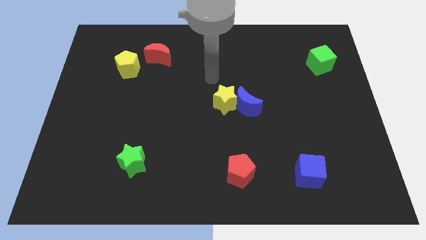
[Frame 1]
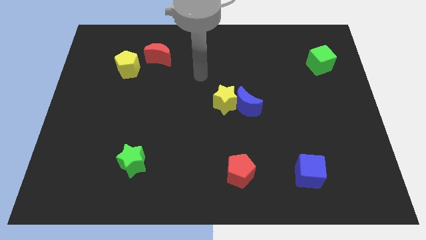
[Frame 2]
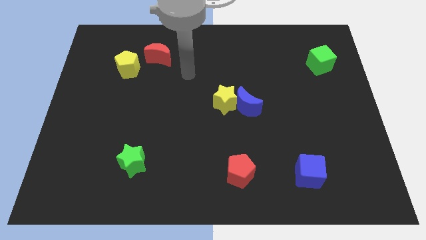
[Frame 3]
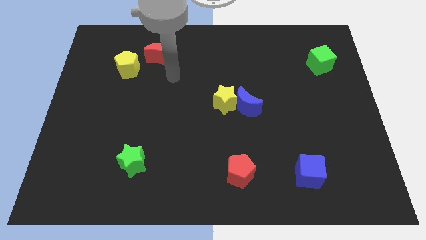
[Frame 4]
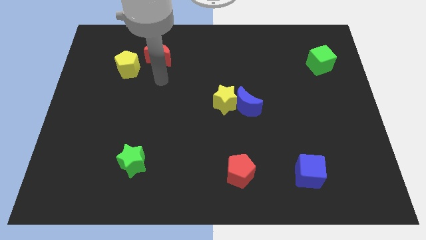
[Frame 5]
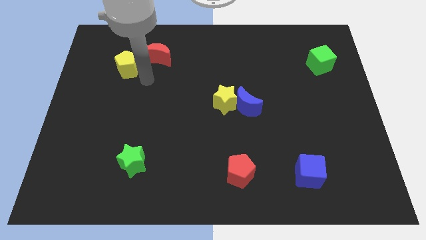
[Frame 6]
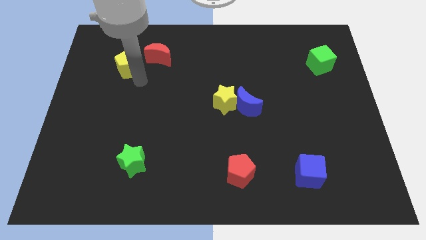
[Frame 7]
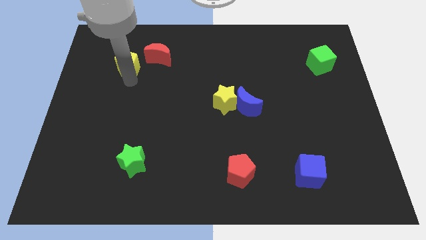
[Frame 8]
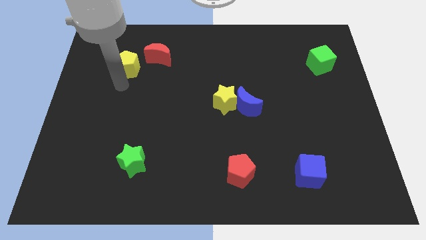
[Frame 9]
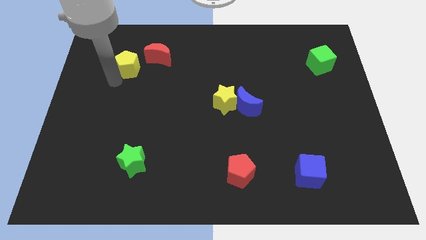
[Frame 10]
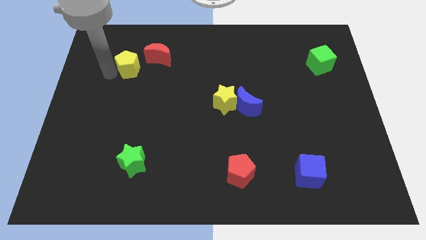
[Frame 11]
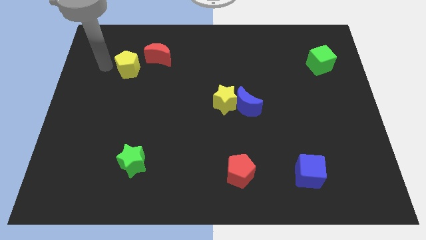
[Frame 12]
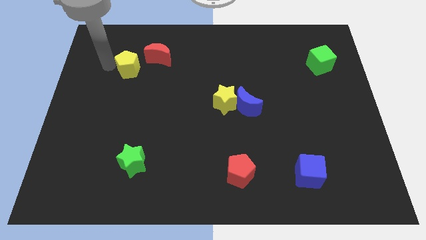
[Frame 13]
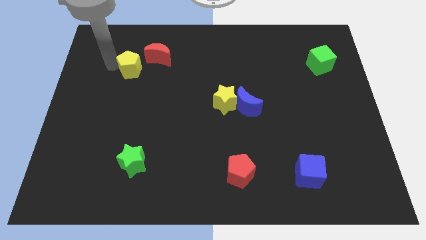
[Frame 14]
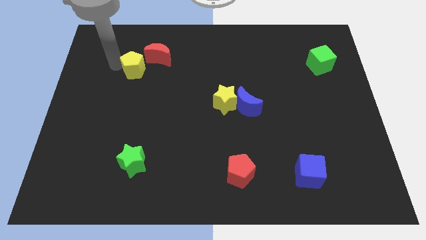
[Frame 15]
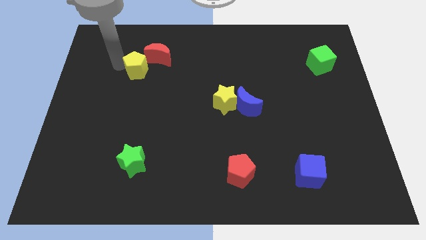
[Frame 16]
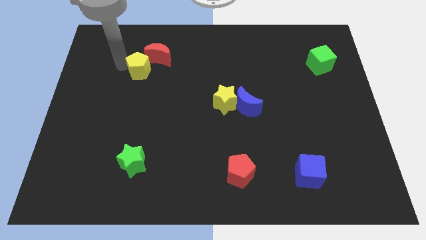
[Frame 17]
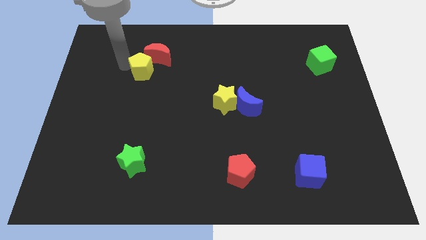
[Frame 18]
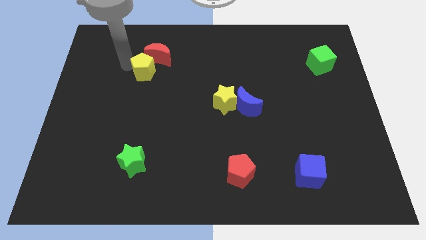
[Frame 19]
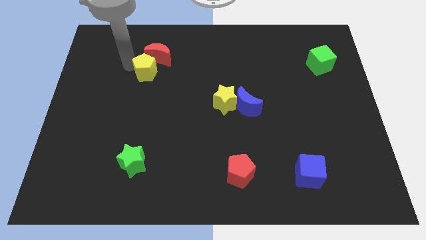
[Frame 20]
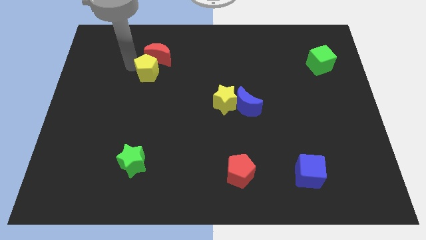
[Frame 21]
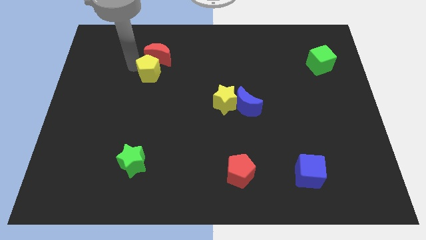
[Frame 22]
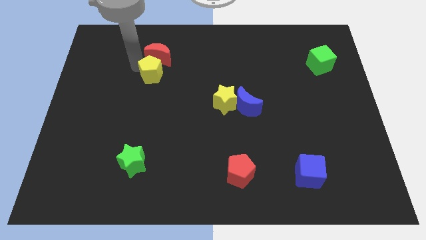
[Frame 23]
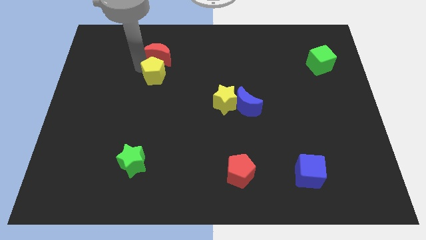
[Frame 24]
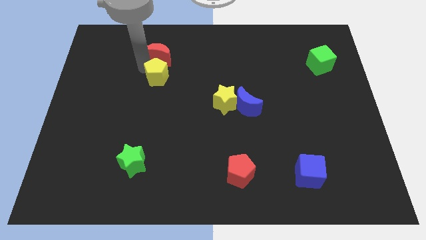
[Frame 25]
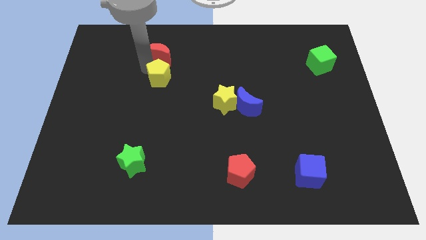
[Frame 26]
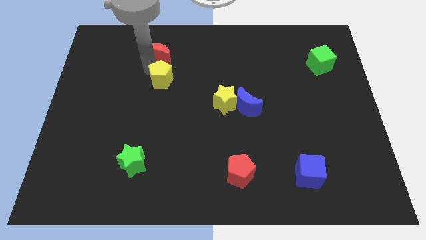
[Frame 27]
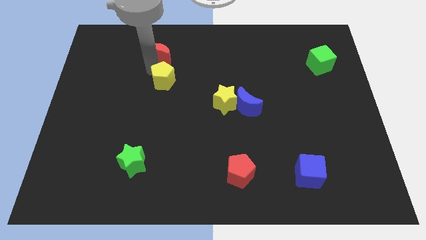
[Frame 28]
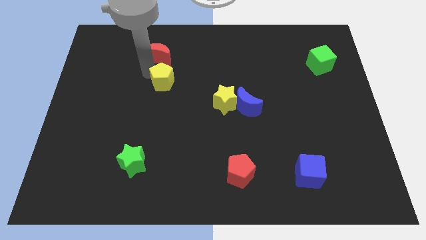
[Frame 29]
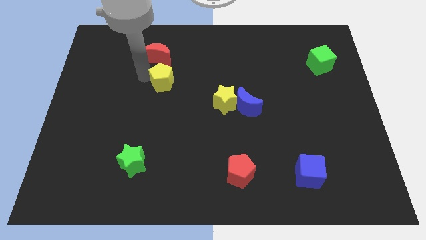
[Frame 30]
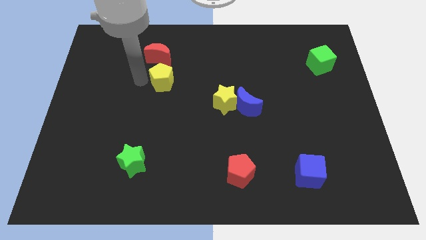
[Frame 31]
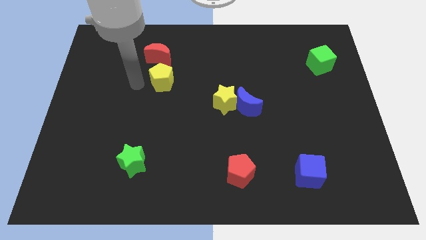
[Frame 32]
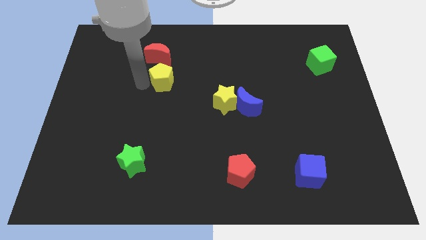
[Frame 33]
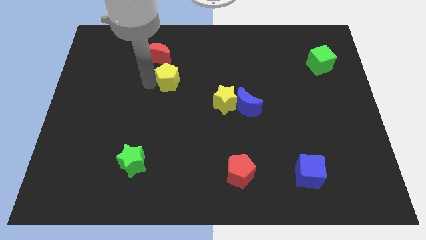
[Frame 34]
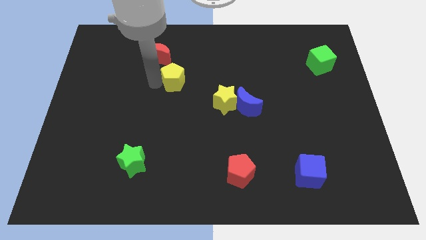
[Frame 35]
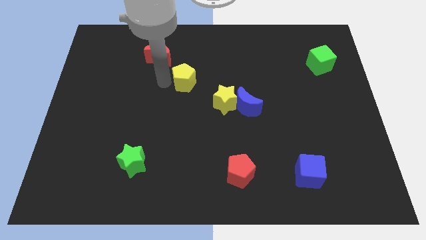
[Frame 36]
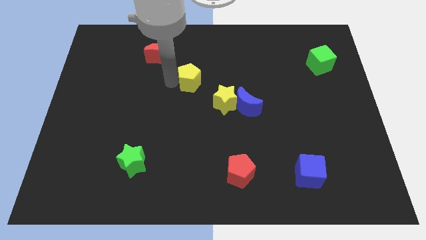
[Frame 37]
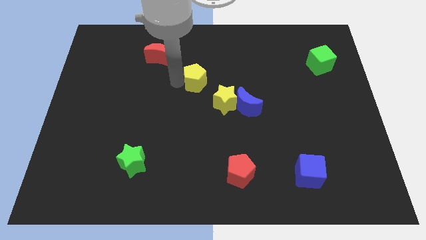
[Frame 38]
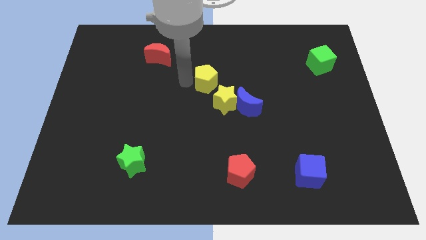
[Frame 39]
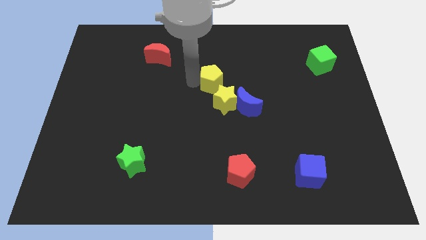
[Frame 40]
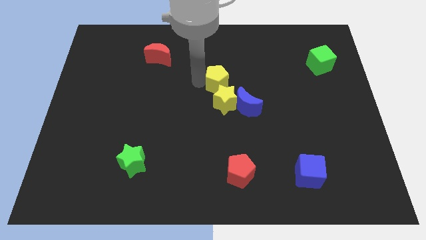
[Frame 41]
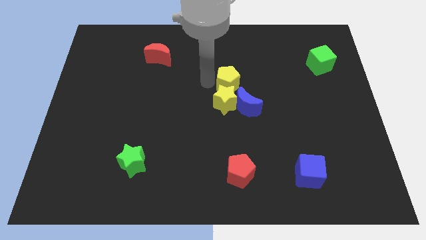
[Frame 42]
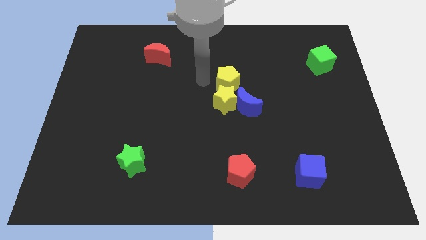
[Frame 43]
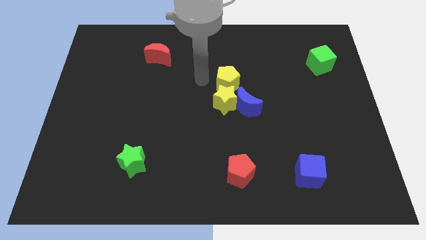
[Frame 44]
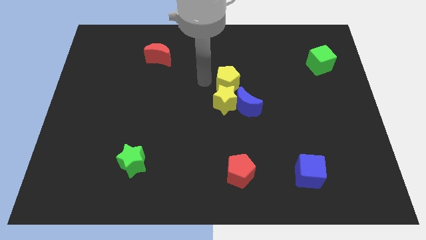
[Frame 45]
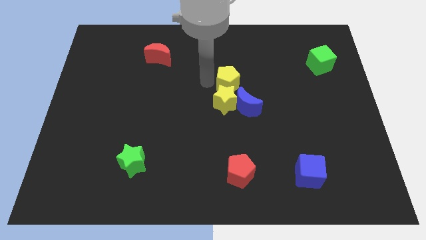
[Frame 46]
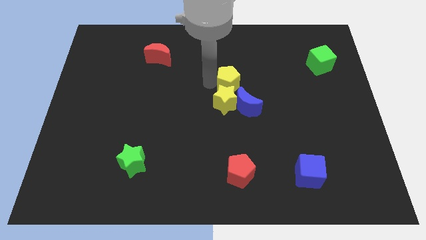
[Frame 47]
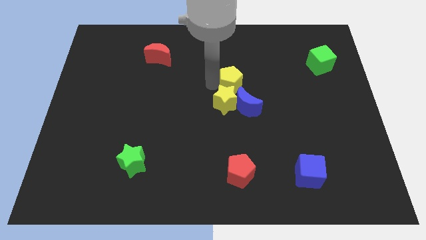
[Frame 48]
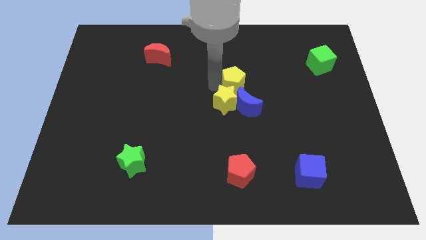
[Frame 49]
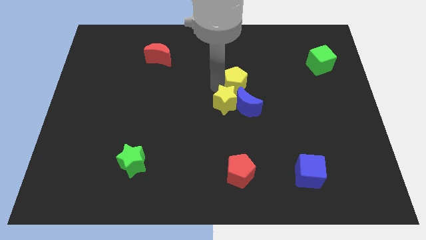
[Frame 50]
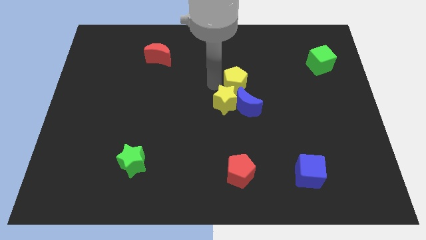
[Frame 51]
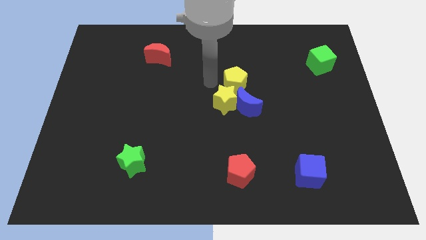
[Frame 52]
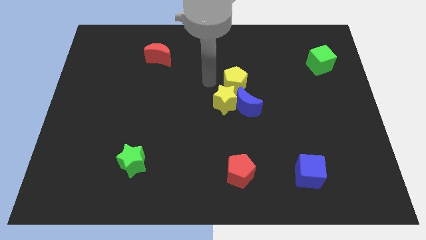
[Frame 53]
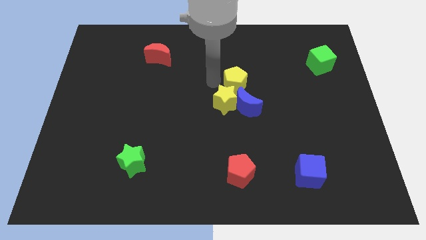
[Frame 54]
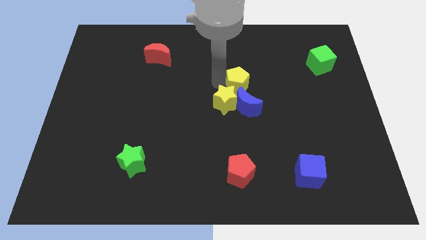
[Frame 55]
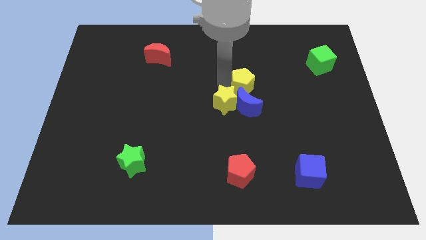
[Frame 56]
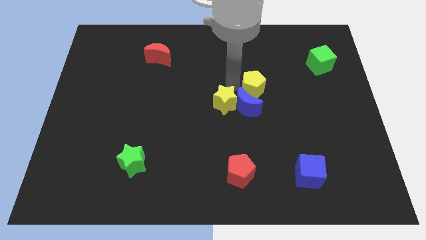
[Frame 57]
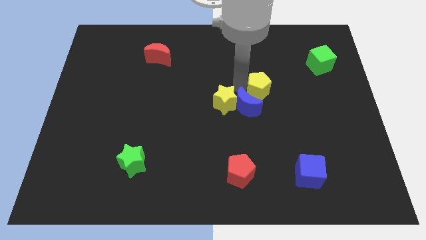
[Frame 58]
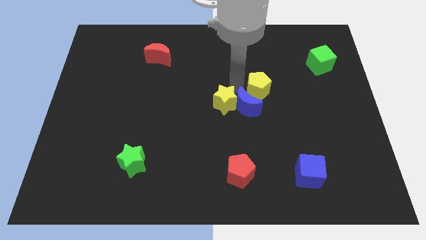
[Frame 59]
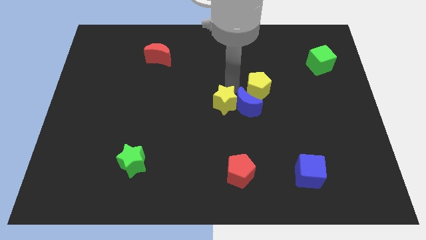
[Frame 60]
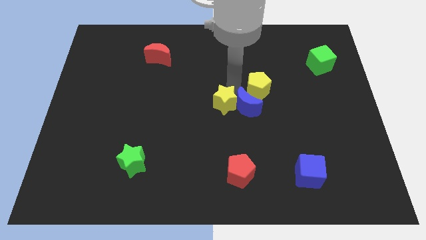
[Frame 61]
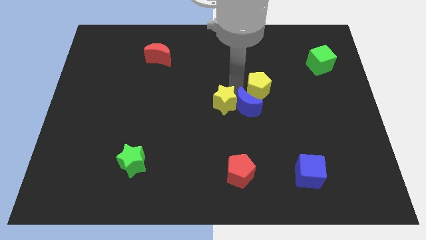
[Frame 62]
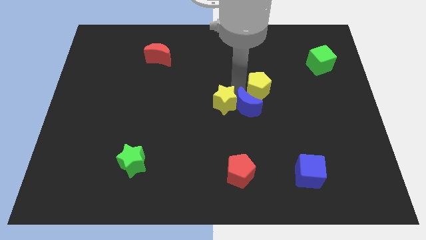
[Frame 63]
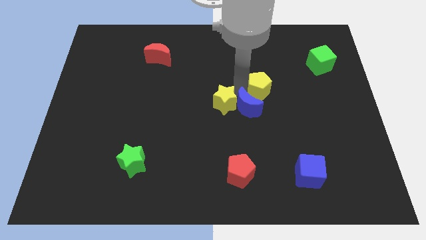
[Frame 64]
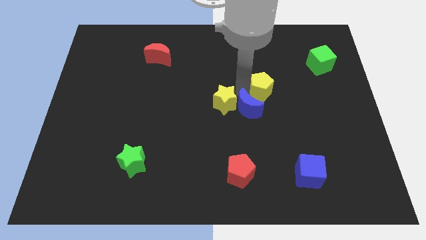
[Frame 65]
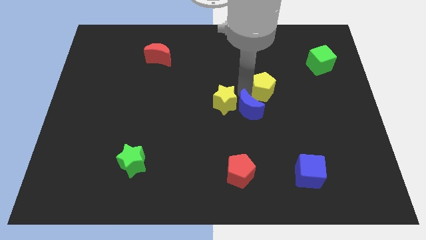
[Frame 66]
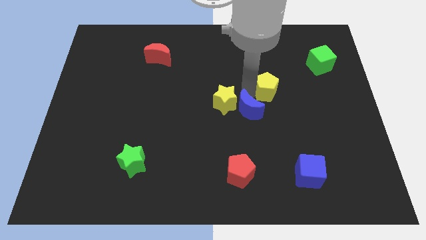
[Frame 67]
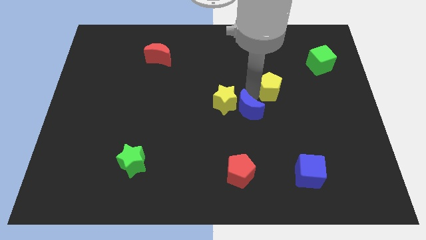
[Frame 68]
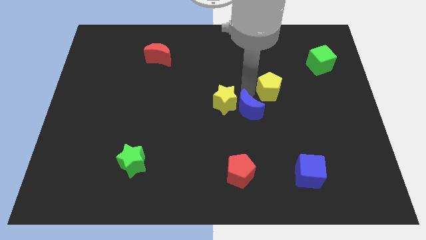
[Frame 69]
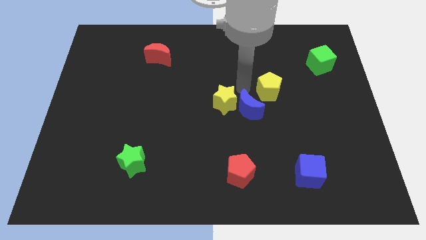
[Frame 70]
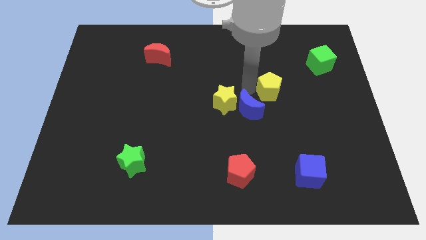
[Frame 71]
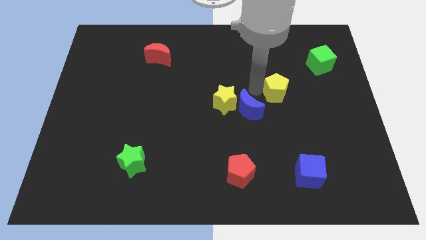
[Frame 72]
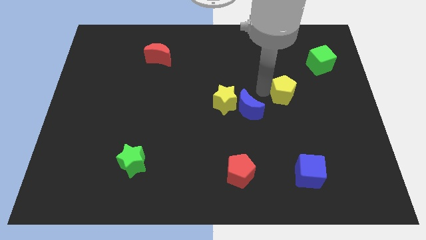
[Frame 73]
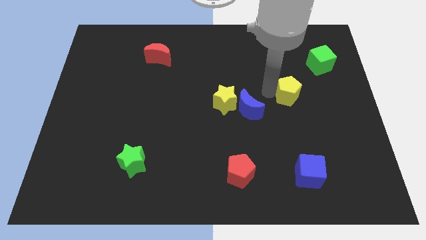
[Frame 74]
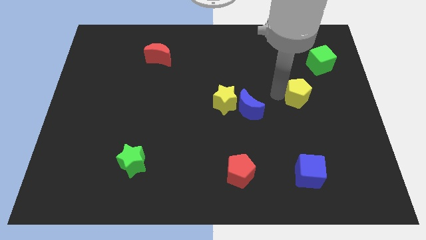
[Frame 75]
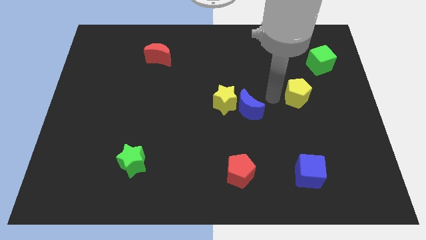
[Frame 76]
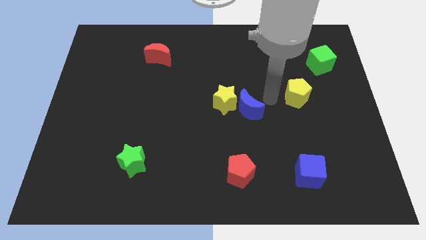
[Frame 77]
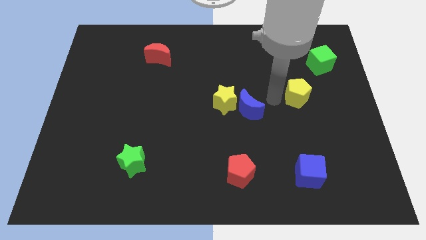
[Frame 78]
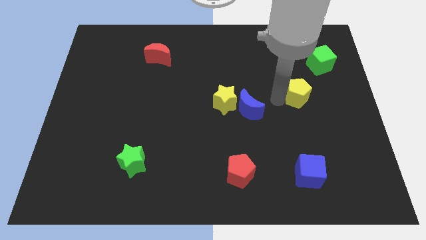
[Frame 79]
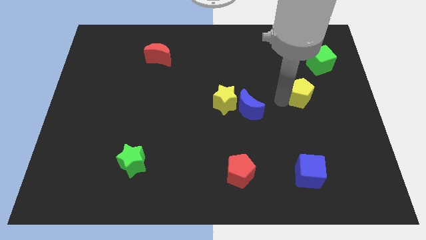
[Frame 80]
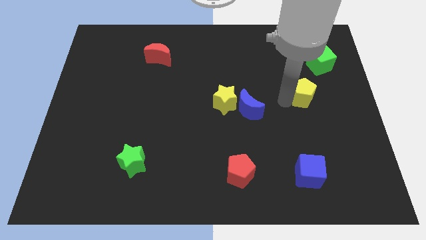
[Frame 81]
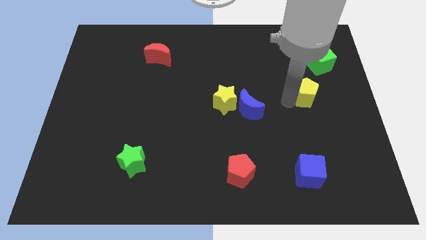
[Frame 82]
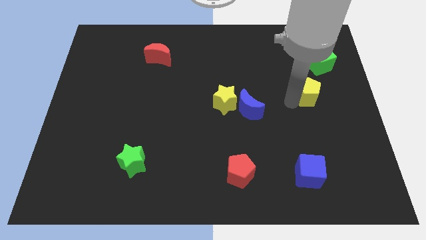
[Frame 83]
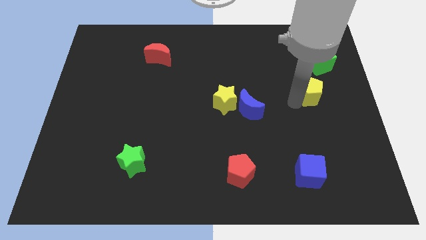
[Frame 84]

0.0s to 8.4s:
slide the yellow pentagon to the bottom of the green cube
